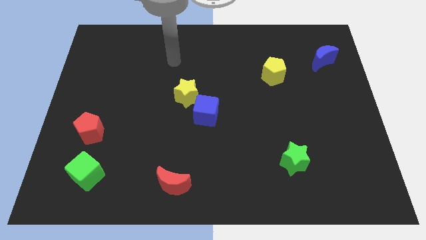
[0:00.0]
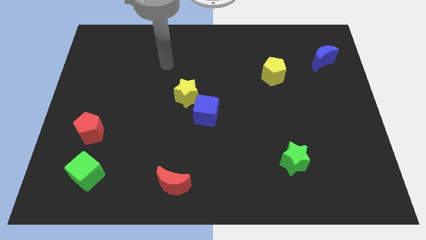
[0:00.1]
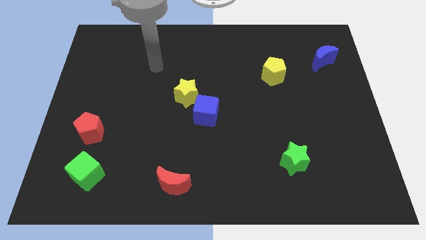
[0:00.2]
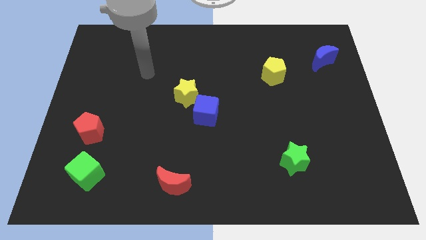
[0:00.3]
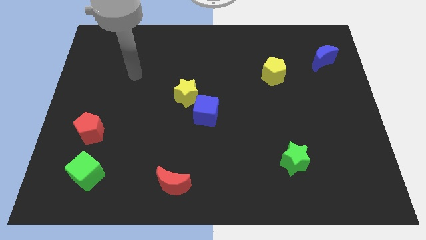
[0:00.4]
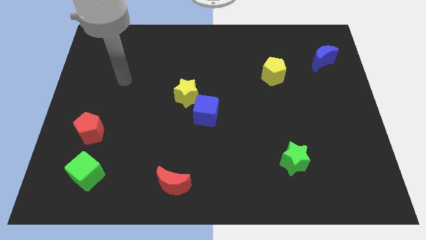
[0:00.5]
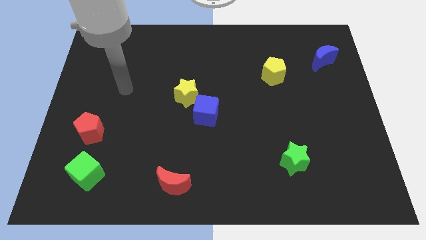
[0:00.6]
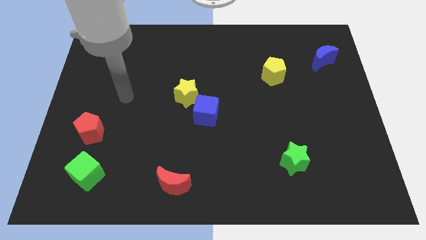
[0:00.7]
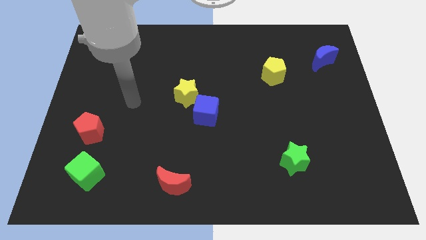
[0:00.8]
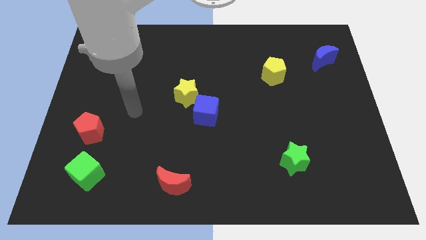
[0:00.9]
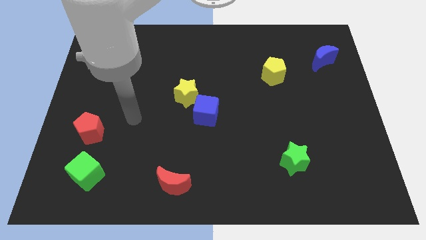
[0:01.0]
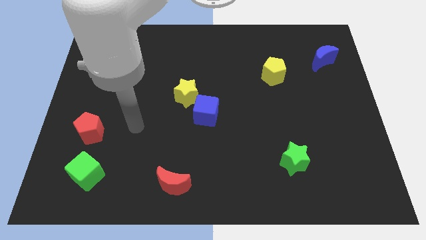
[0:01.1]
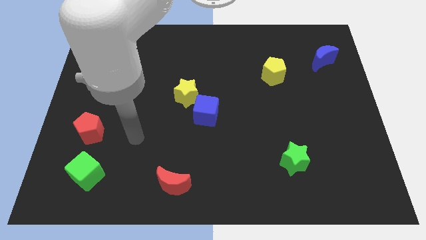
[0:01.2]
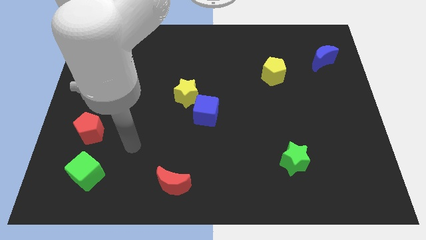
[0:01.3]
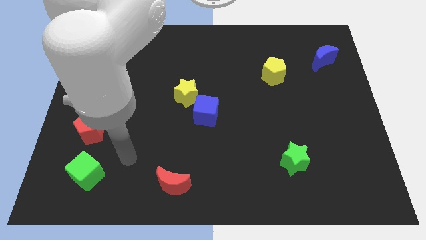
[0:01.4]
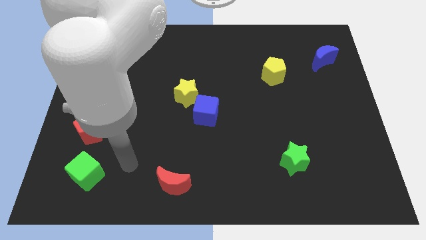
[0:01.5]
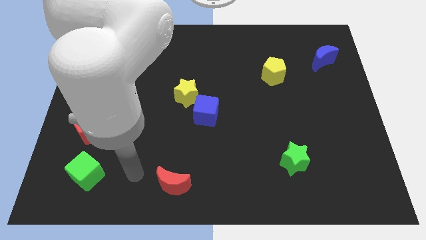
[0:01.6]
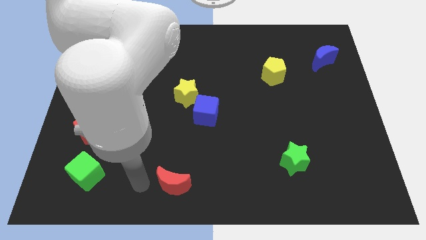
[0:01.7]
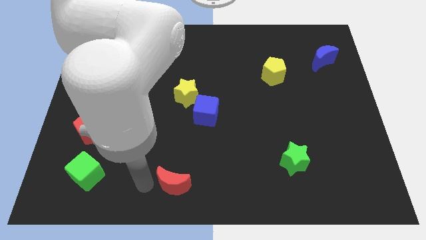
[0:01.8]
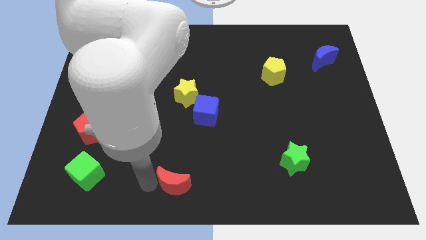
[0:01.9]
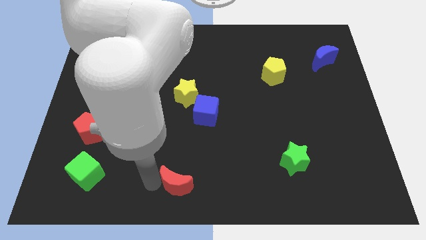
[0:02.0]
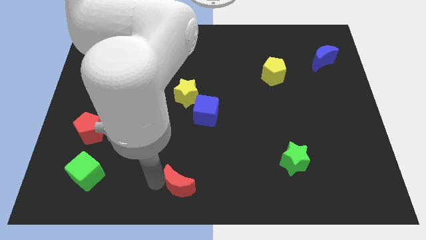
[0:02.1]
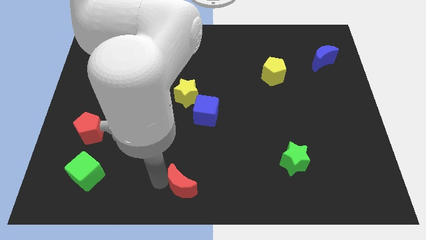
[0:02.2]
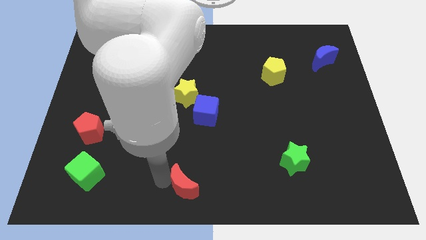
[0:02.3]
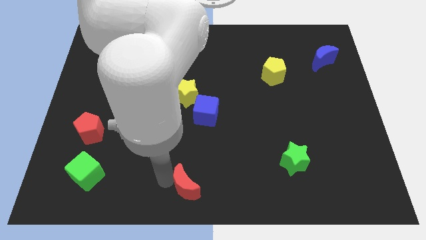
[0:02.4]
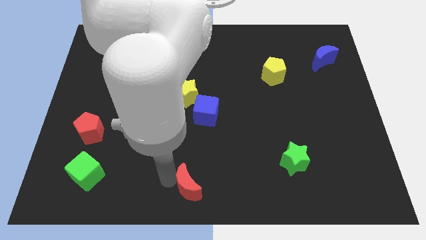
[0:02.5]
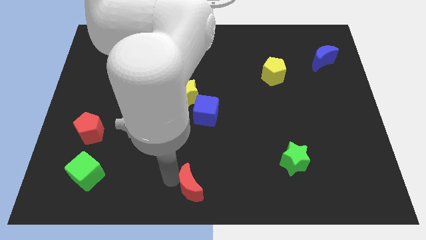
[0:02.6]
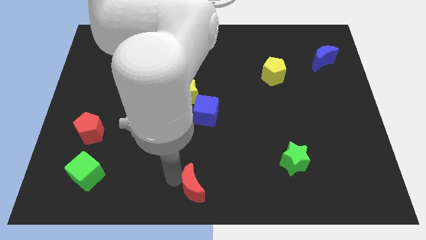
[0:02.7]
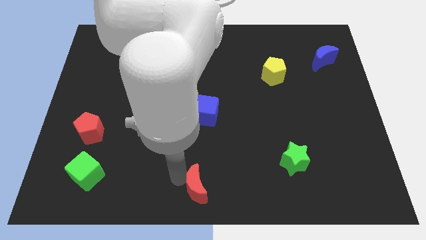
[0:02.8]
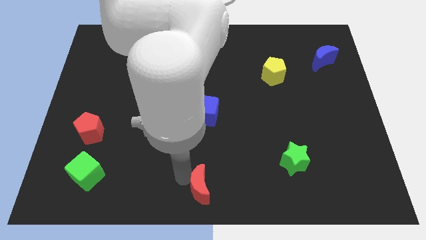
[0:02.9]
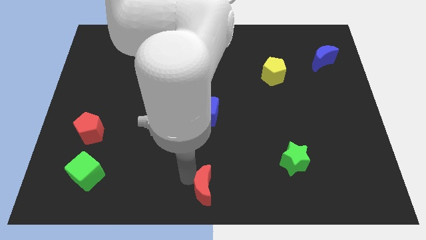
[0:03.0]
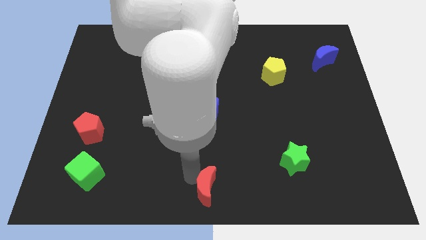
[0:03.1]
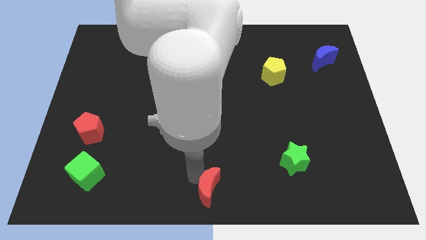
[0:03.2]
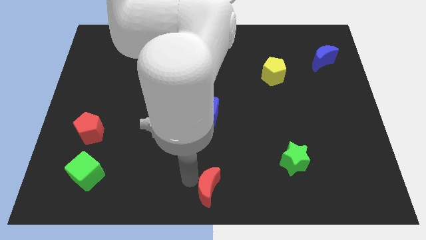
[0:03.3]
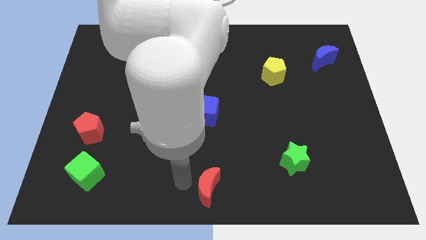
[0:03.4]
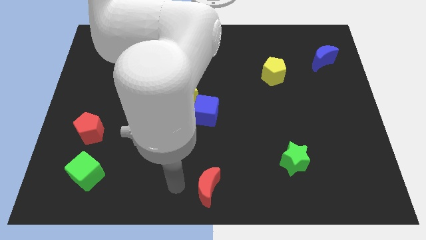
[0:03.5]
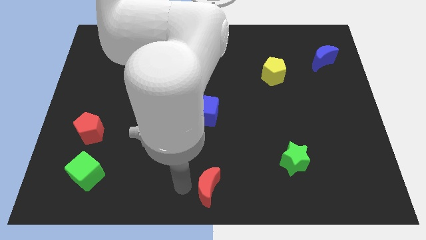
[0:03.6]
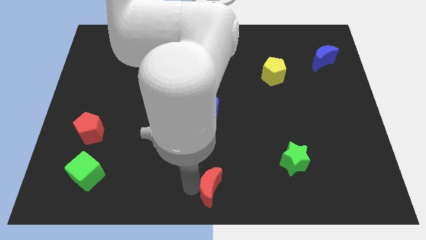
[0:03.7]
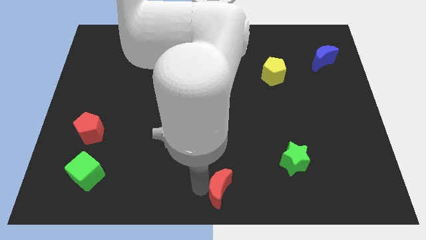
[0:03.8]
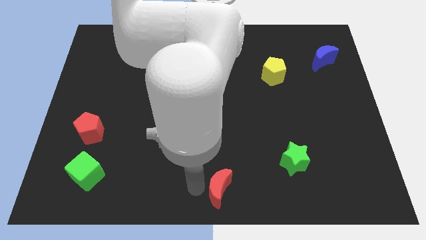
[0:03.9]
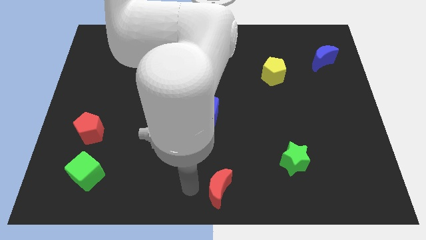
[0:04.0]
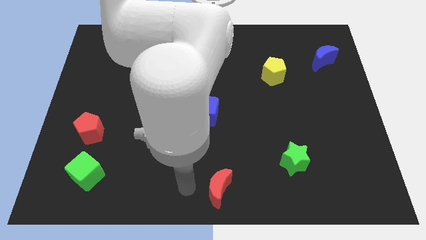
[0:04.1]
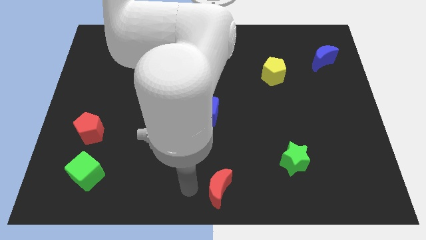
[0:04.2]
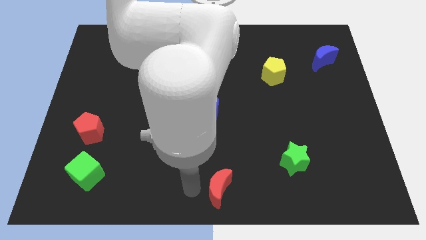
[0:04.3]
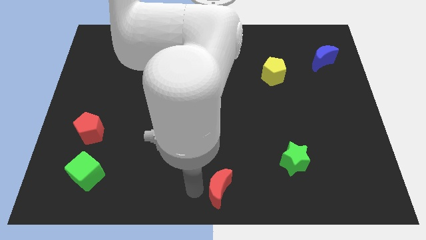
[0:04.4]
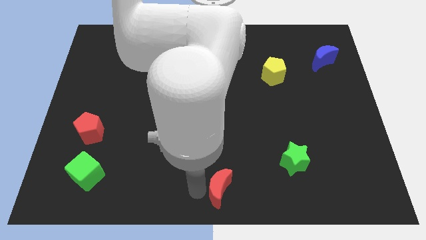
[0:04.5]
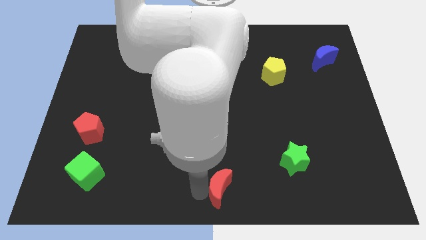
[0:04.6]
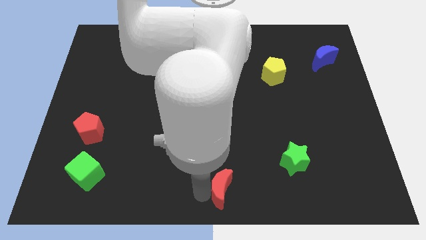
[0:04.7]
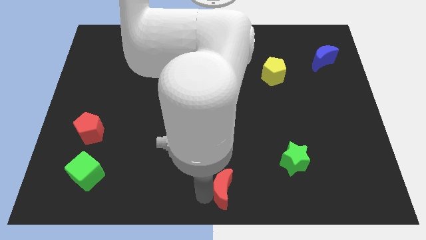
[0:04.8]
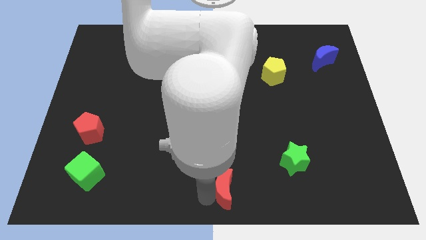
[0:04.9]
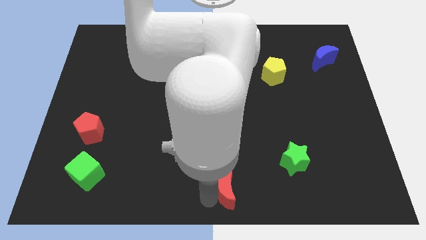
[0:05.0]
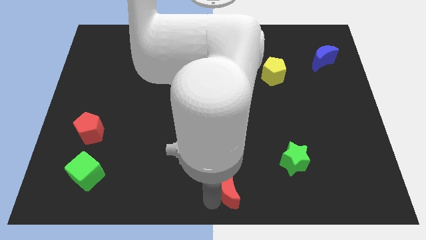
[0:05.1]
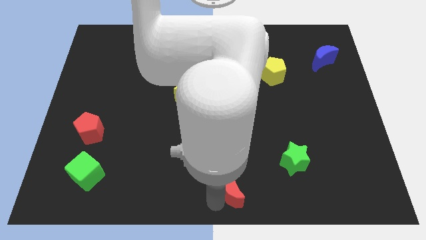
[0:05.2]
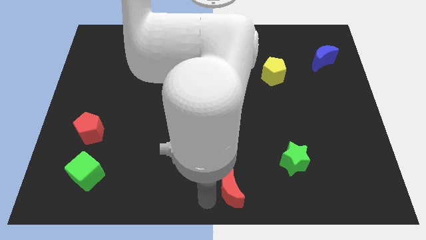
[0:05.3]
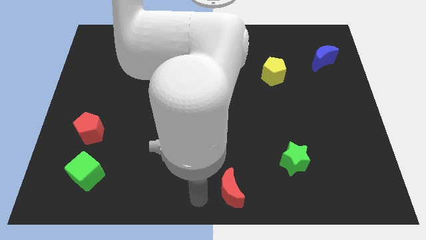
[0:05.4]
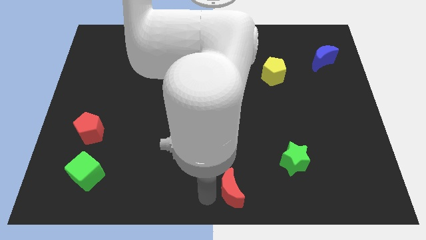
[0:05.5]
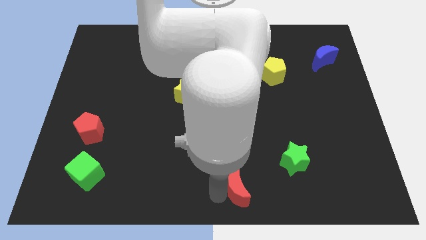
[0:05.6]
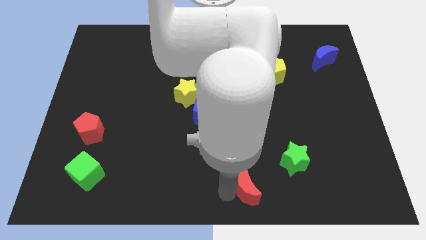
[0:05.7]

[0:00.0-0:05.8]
push the red moon diagonally down and to the left of the green star

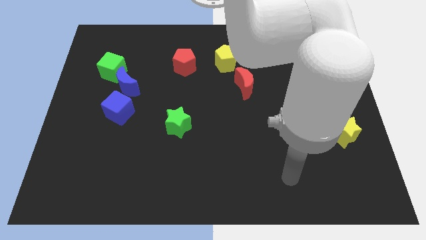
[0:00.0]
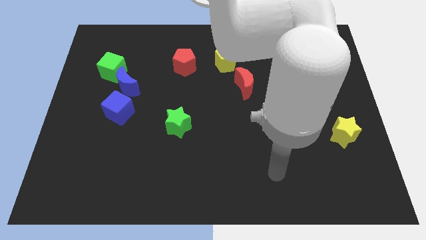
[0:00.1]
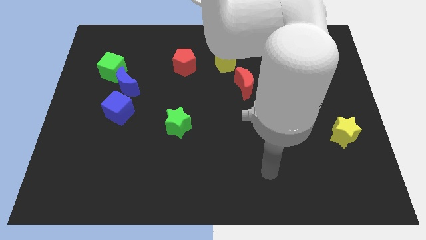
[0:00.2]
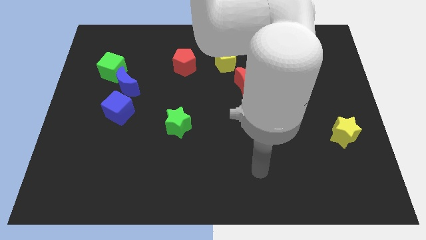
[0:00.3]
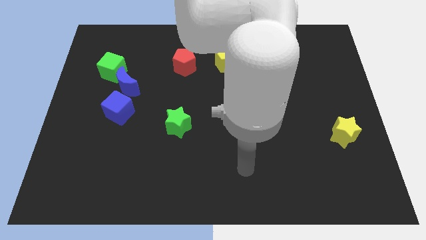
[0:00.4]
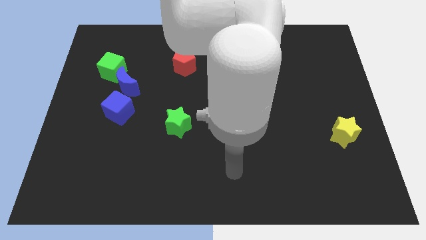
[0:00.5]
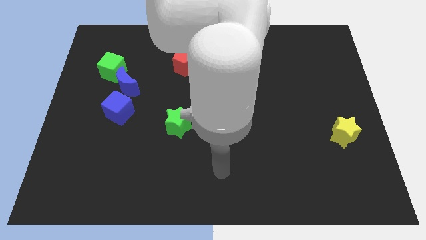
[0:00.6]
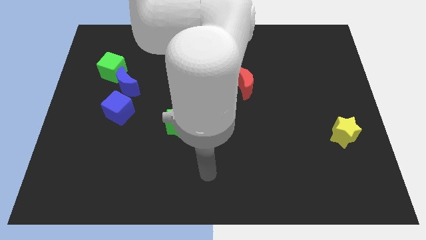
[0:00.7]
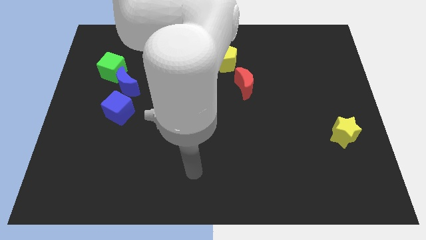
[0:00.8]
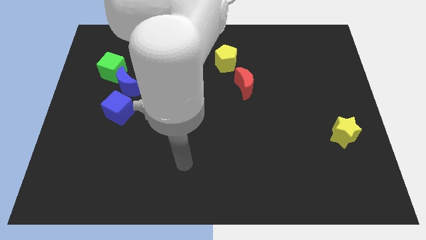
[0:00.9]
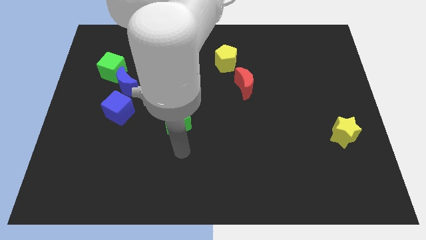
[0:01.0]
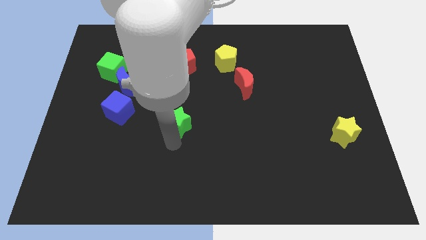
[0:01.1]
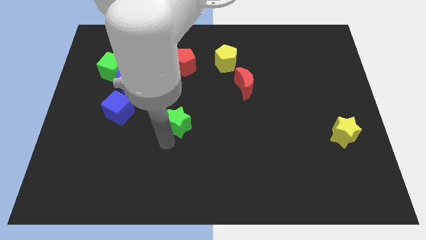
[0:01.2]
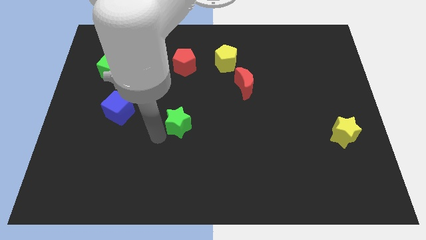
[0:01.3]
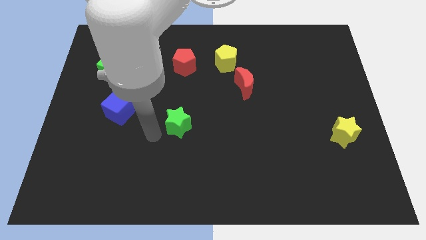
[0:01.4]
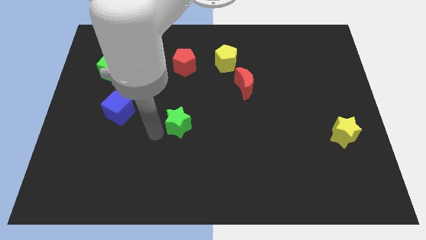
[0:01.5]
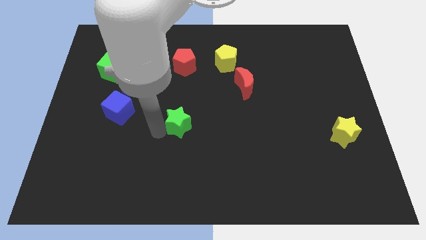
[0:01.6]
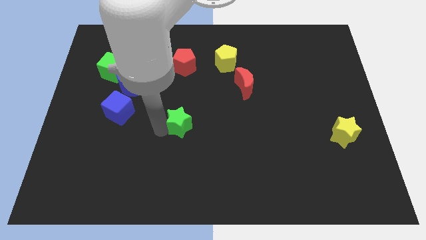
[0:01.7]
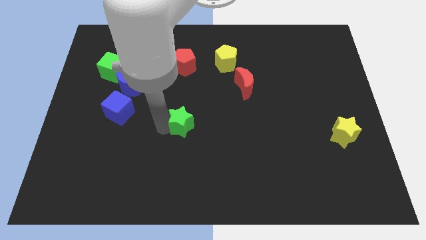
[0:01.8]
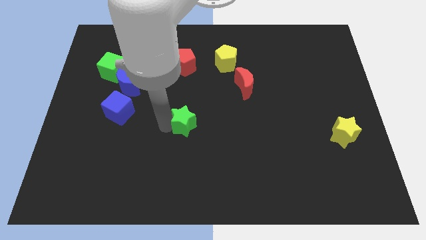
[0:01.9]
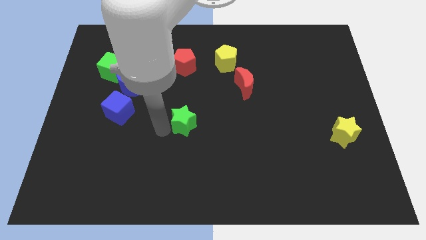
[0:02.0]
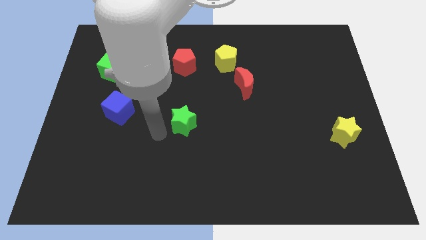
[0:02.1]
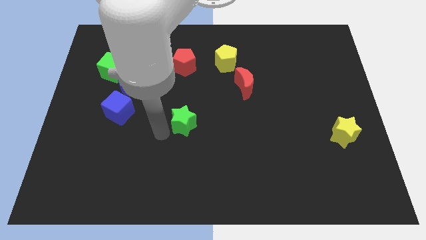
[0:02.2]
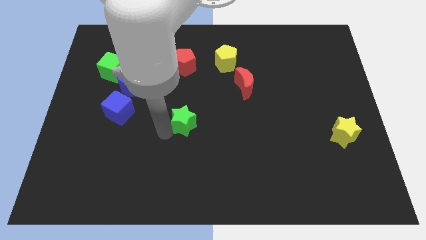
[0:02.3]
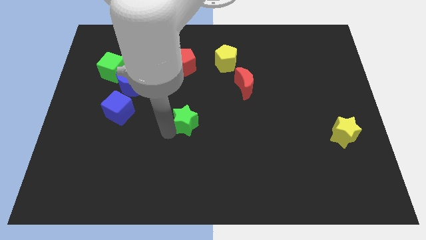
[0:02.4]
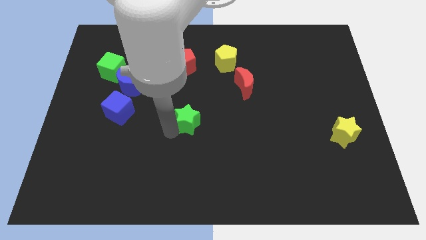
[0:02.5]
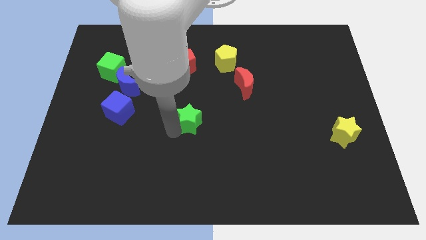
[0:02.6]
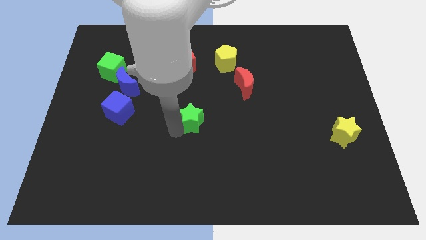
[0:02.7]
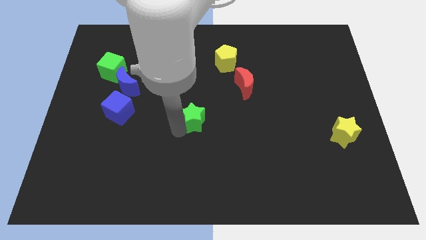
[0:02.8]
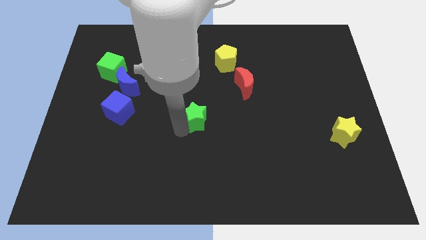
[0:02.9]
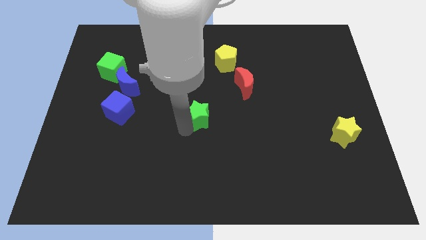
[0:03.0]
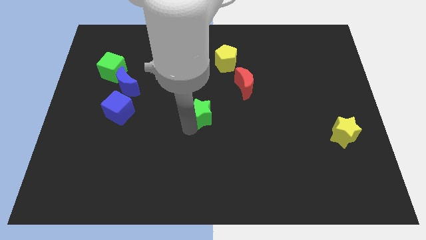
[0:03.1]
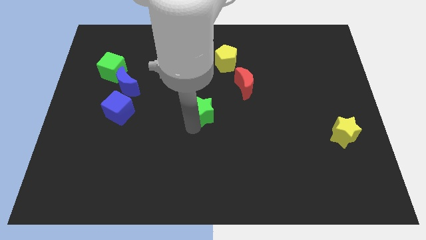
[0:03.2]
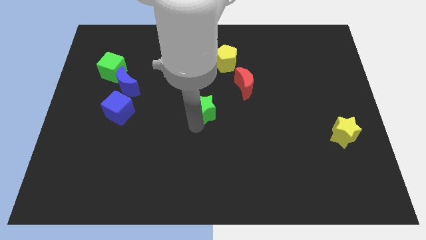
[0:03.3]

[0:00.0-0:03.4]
move the green star to the bottom left of the red moon
